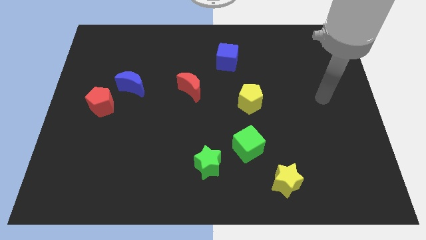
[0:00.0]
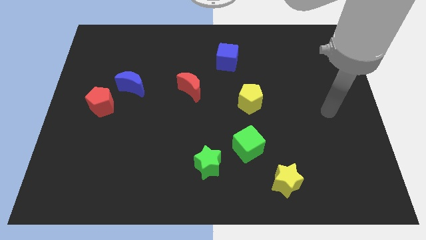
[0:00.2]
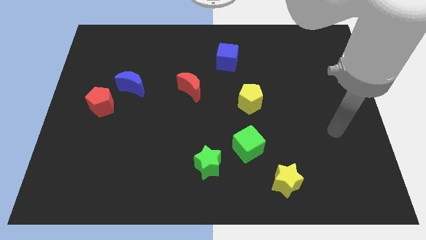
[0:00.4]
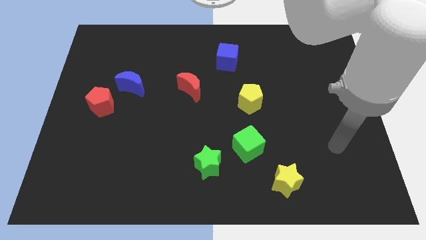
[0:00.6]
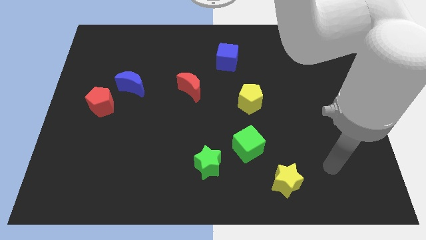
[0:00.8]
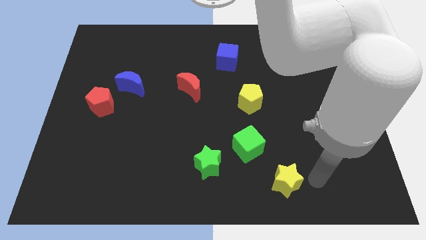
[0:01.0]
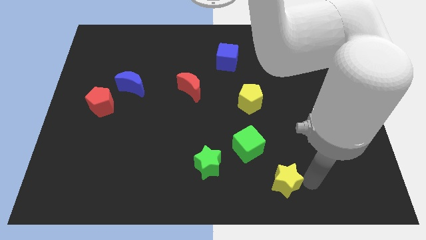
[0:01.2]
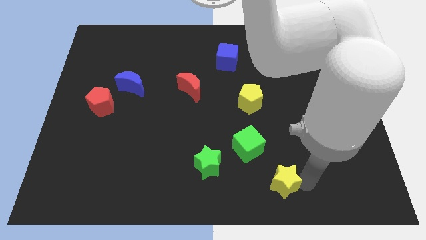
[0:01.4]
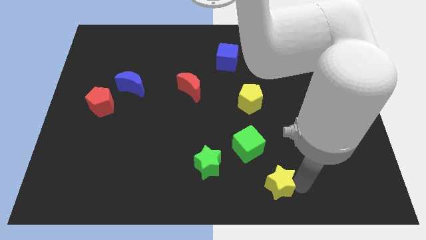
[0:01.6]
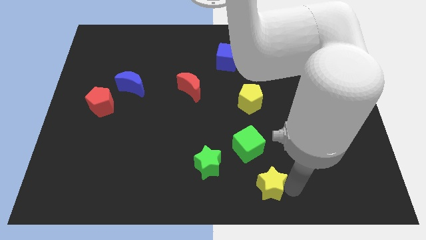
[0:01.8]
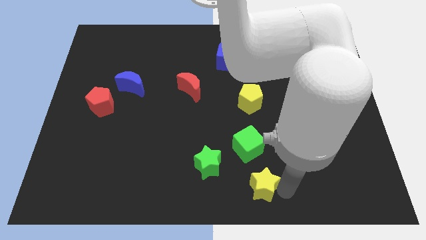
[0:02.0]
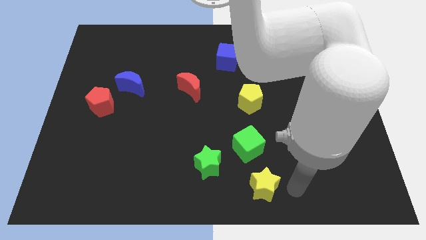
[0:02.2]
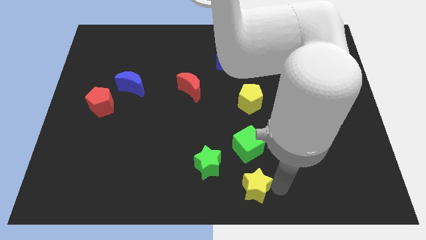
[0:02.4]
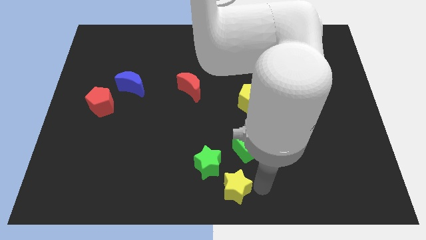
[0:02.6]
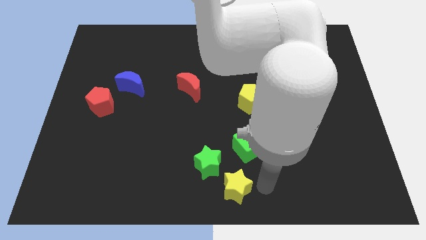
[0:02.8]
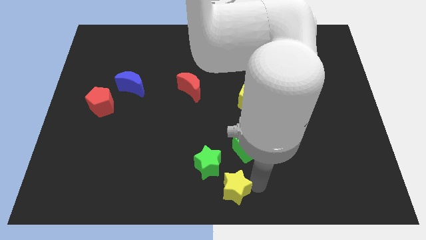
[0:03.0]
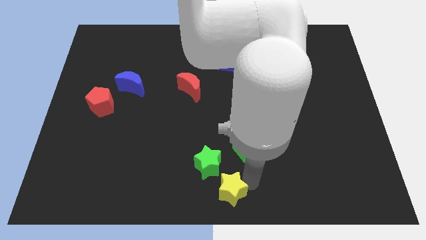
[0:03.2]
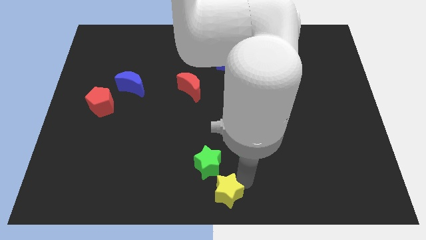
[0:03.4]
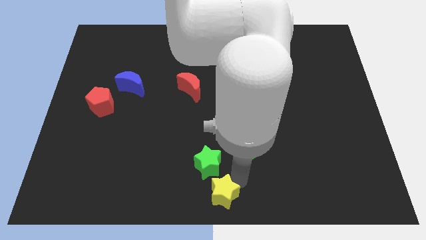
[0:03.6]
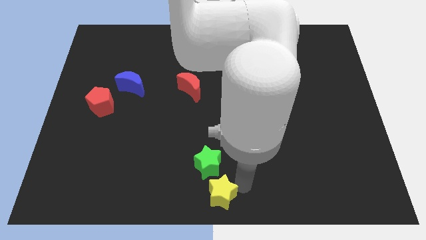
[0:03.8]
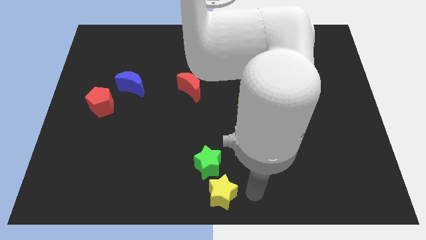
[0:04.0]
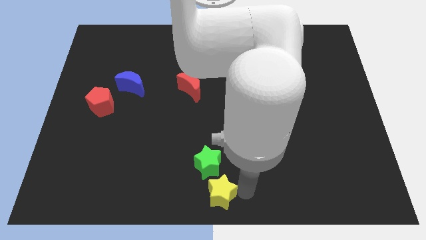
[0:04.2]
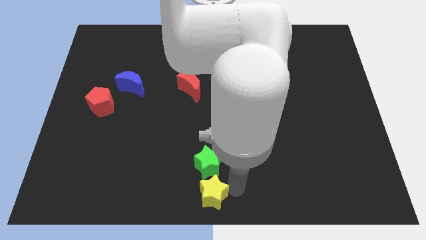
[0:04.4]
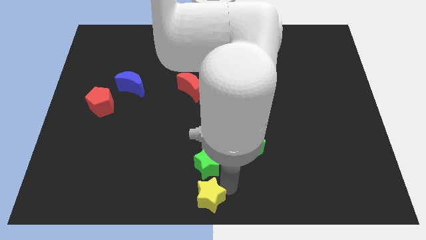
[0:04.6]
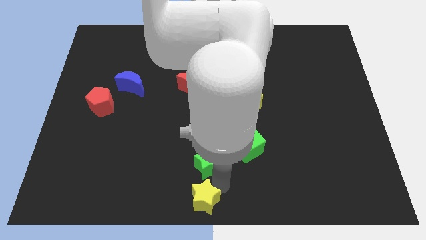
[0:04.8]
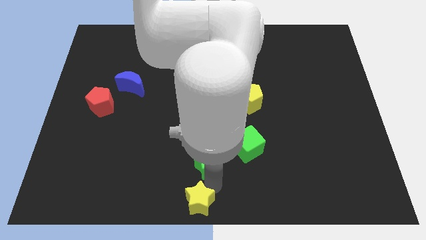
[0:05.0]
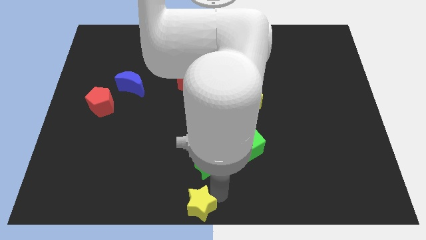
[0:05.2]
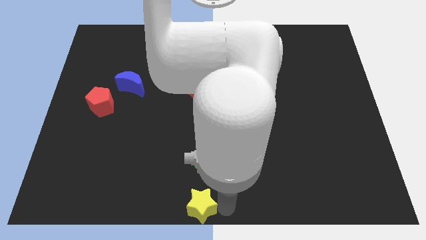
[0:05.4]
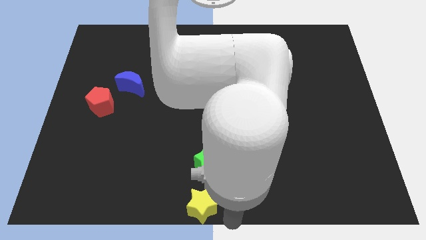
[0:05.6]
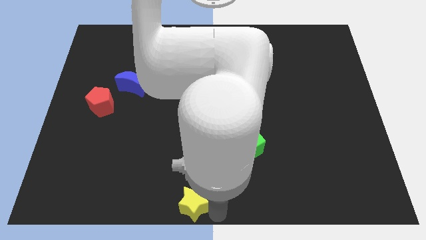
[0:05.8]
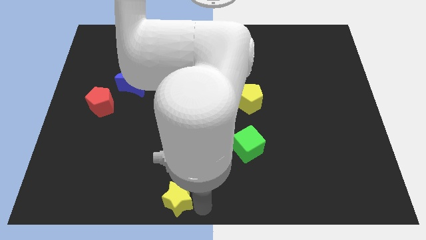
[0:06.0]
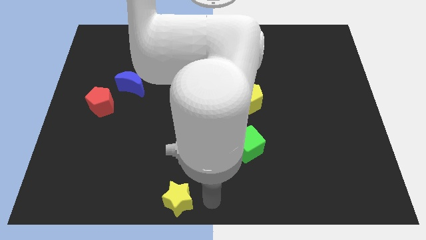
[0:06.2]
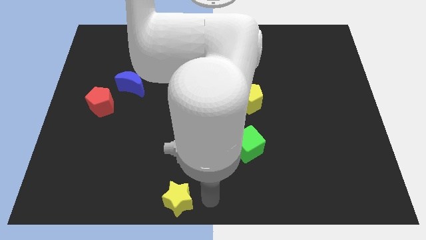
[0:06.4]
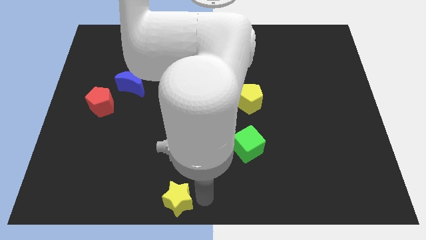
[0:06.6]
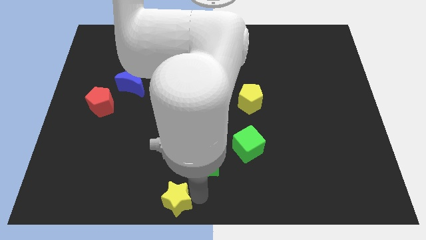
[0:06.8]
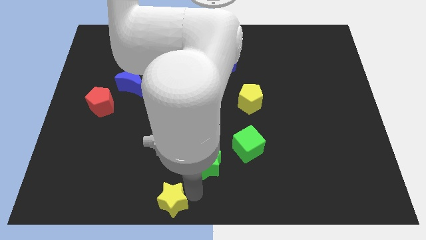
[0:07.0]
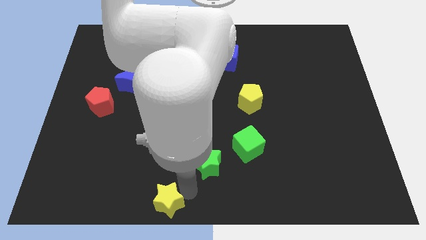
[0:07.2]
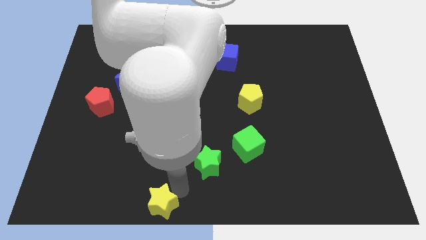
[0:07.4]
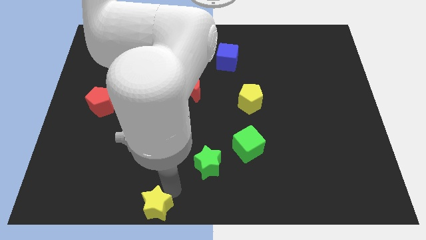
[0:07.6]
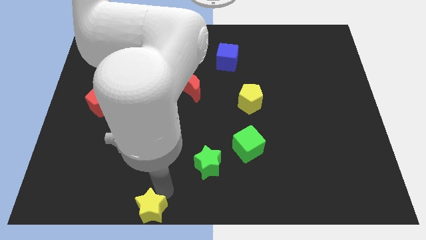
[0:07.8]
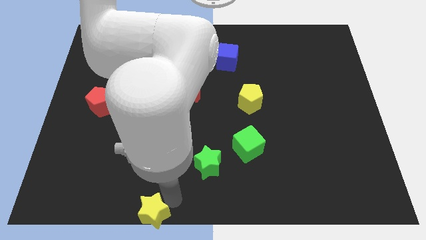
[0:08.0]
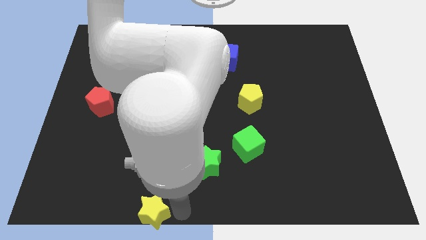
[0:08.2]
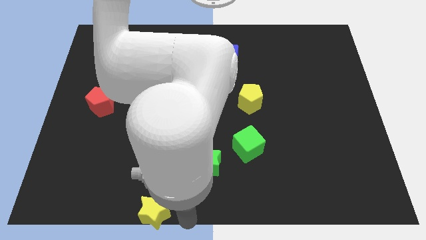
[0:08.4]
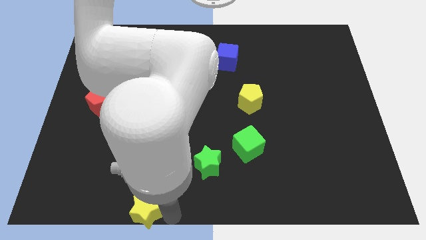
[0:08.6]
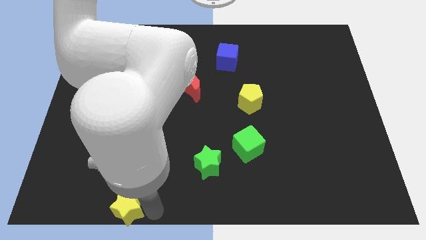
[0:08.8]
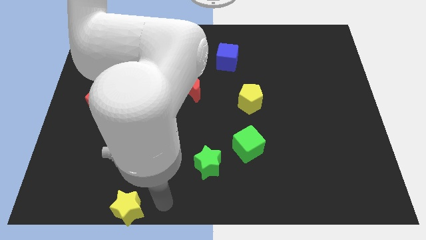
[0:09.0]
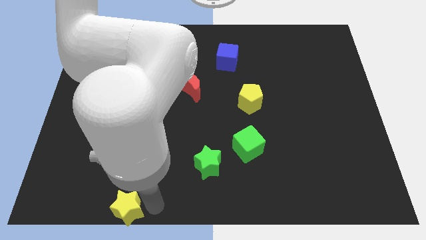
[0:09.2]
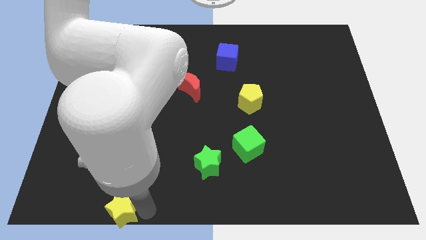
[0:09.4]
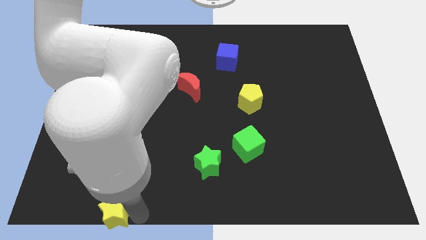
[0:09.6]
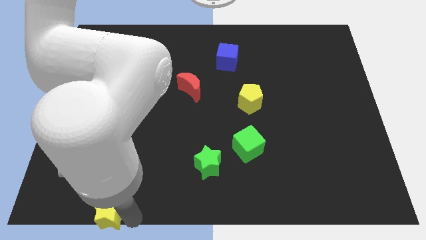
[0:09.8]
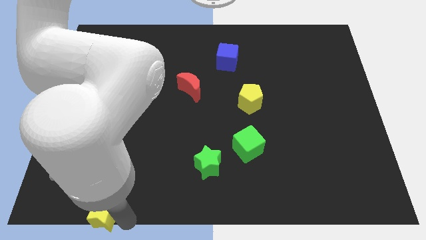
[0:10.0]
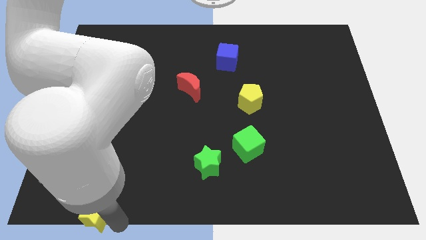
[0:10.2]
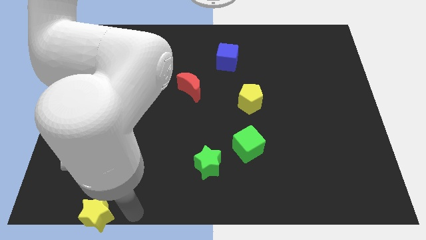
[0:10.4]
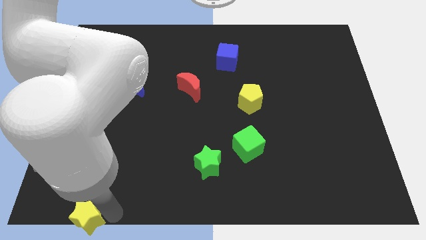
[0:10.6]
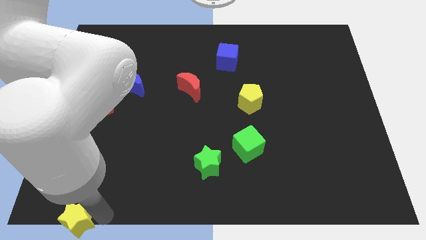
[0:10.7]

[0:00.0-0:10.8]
move the yellow star to the bottom left

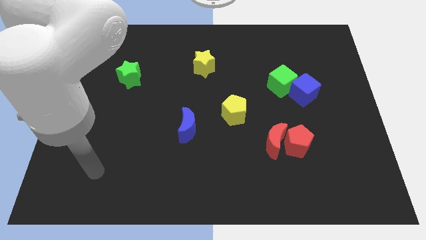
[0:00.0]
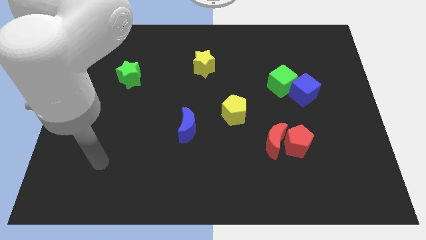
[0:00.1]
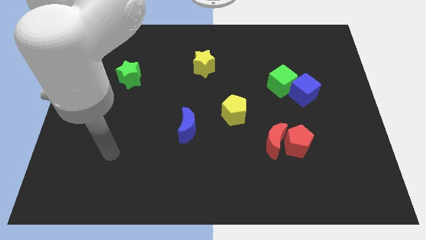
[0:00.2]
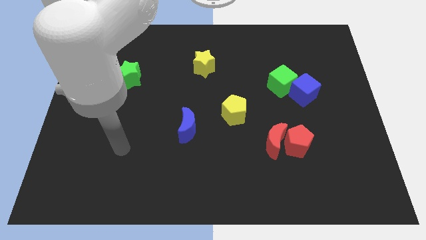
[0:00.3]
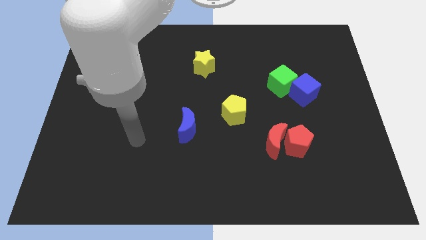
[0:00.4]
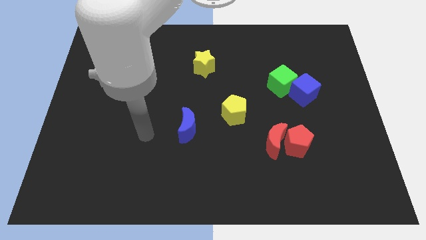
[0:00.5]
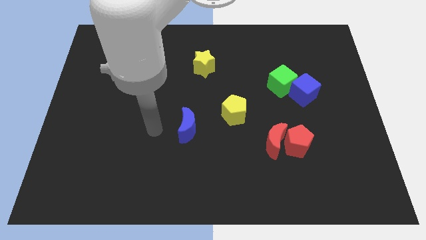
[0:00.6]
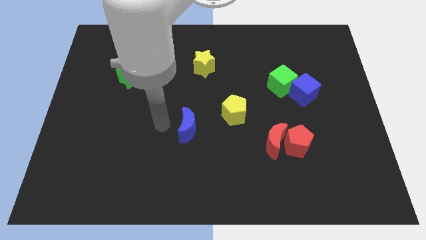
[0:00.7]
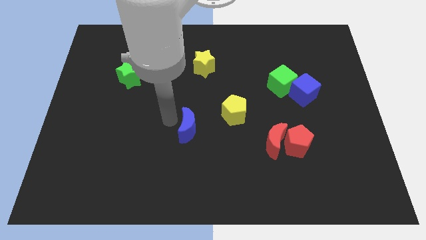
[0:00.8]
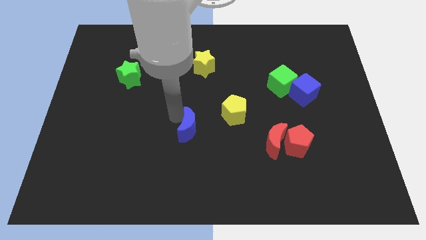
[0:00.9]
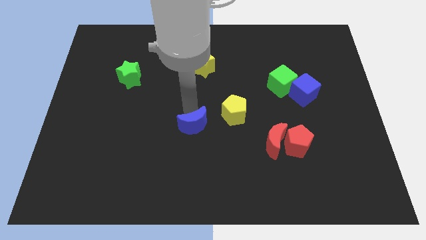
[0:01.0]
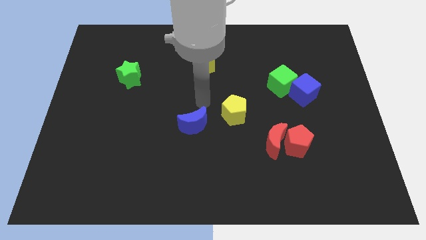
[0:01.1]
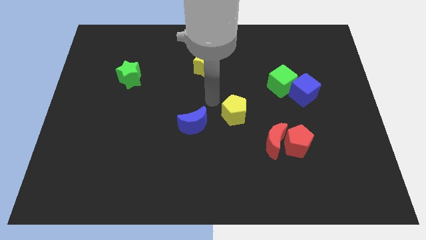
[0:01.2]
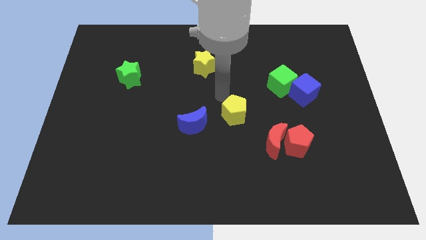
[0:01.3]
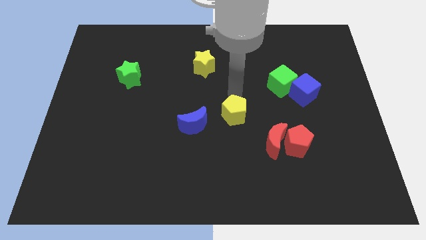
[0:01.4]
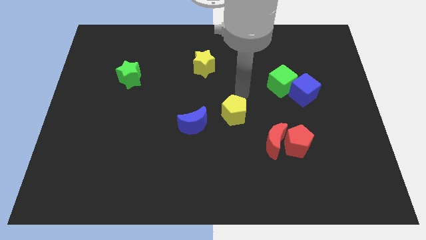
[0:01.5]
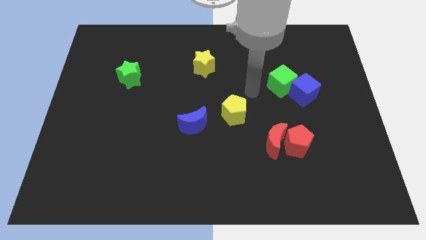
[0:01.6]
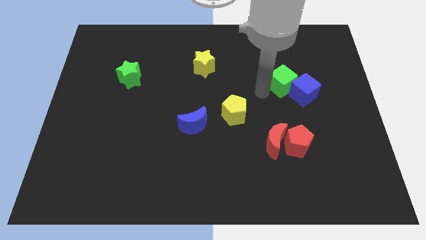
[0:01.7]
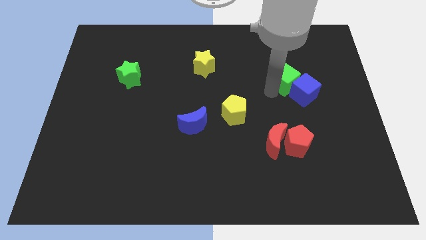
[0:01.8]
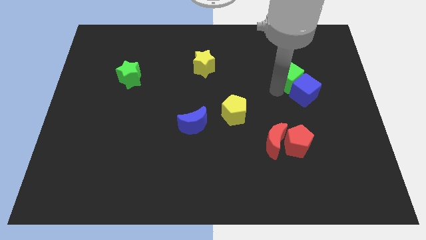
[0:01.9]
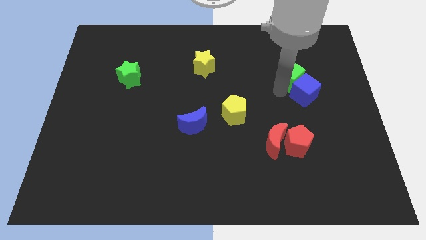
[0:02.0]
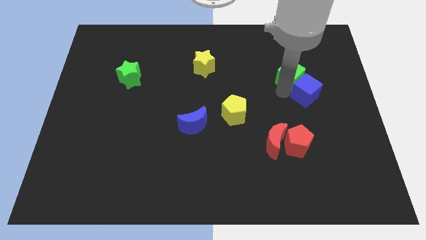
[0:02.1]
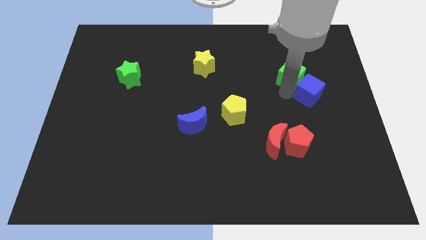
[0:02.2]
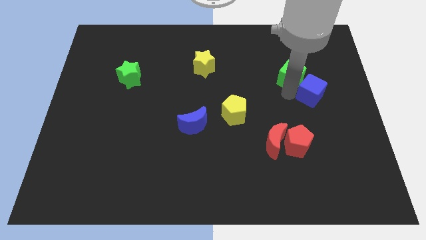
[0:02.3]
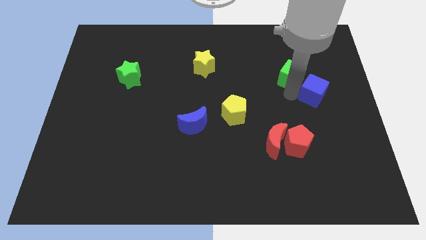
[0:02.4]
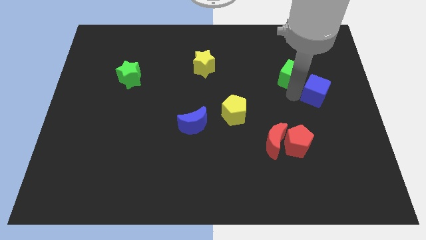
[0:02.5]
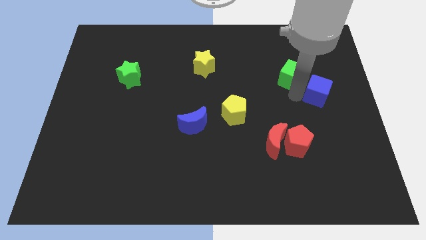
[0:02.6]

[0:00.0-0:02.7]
put the blue cube to the center right
